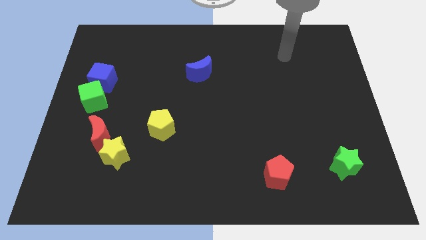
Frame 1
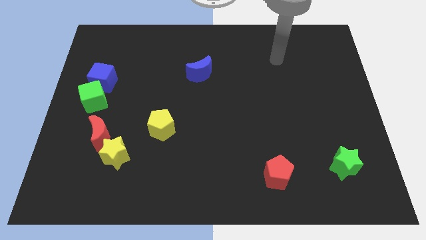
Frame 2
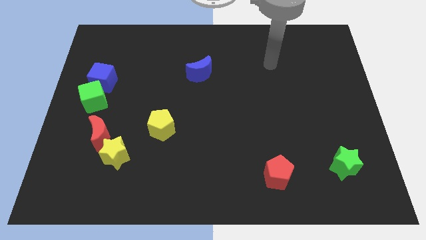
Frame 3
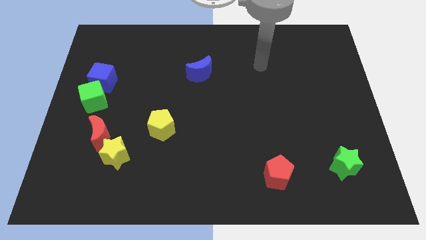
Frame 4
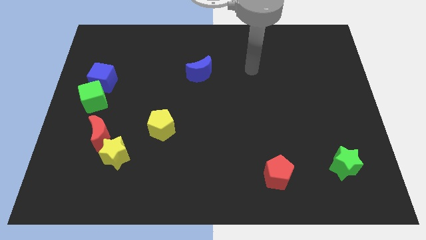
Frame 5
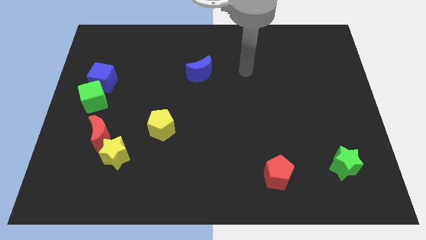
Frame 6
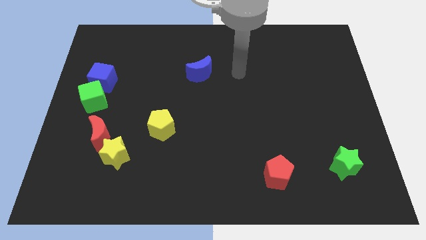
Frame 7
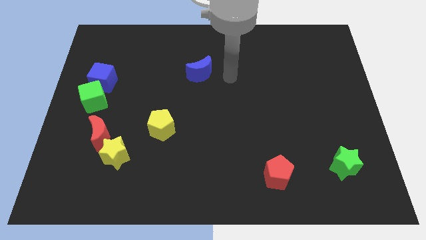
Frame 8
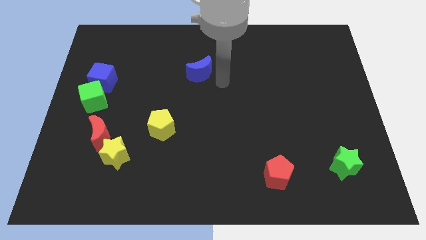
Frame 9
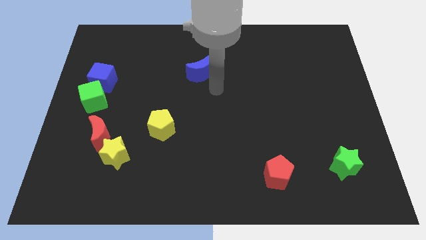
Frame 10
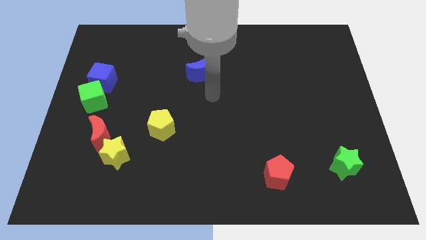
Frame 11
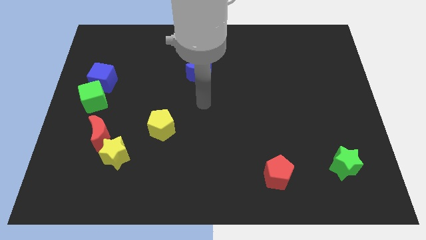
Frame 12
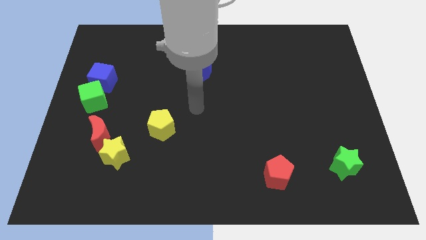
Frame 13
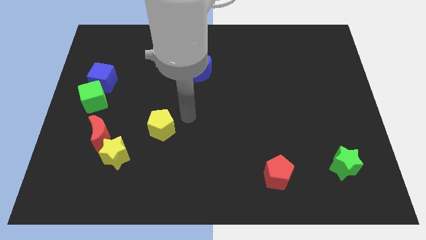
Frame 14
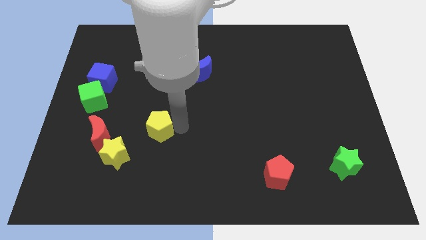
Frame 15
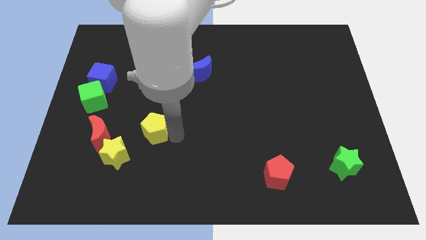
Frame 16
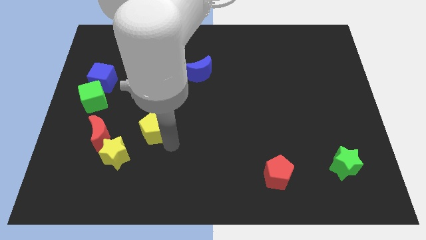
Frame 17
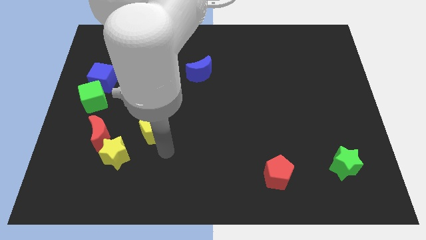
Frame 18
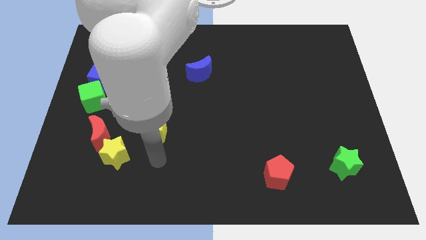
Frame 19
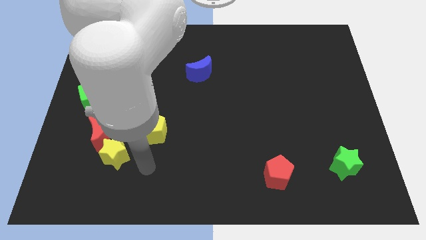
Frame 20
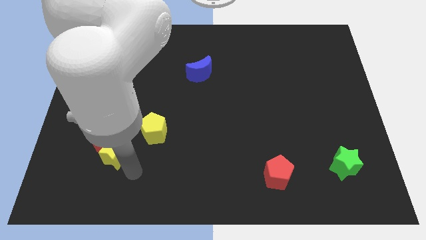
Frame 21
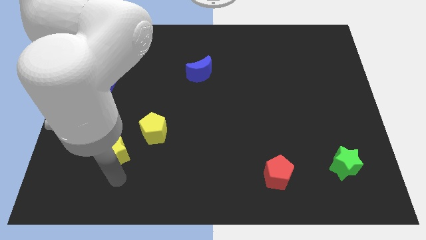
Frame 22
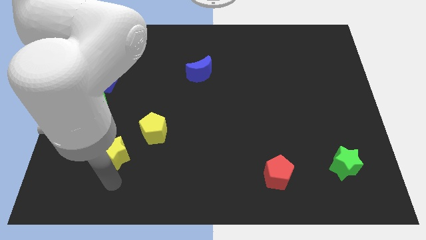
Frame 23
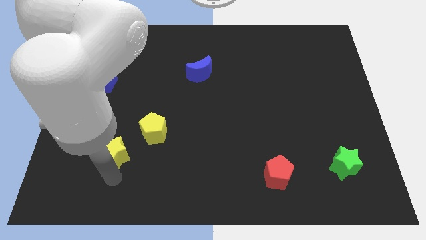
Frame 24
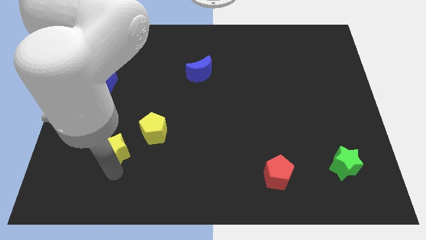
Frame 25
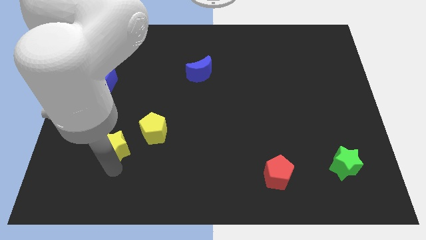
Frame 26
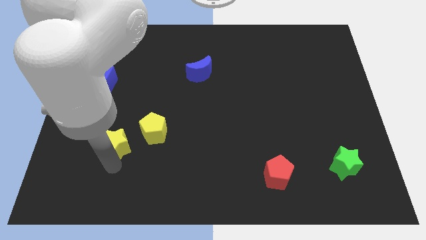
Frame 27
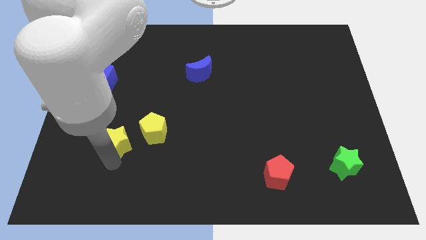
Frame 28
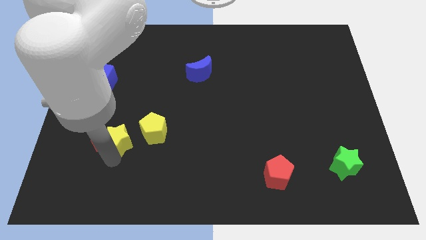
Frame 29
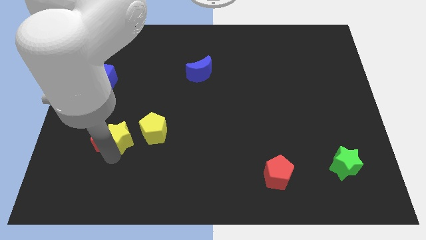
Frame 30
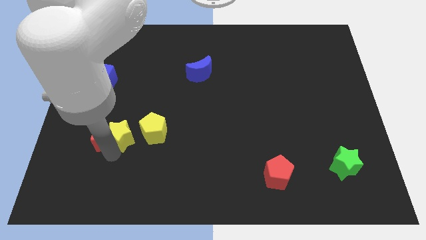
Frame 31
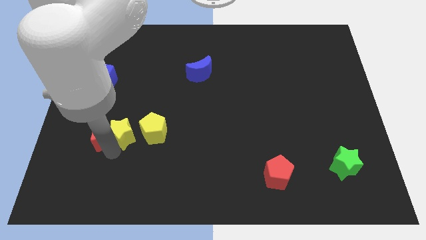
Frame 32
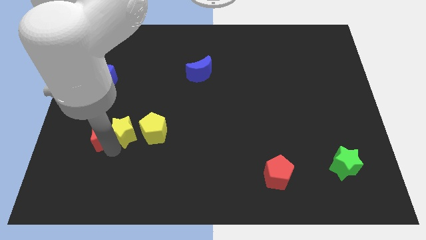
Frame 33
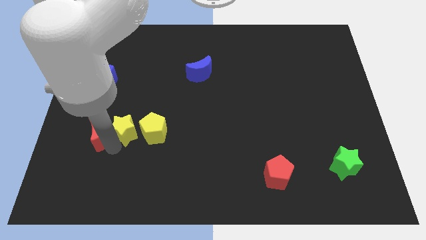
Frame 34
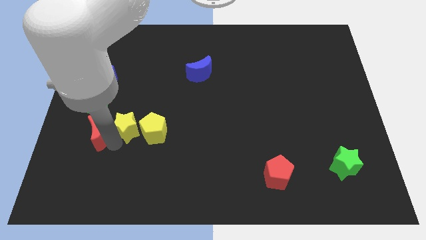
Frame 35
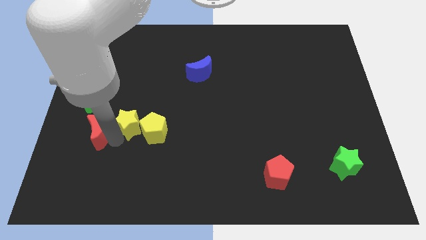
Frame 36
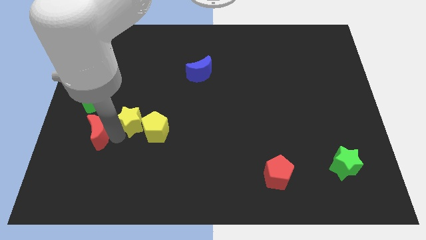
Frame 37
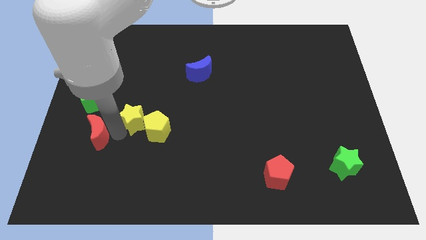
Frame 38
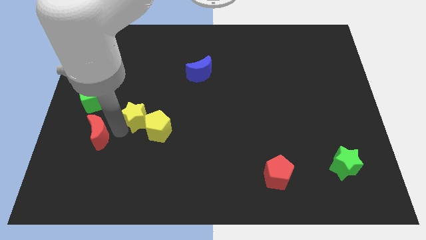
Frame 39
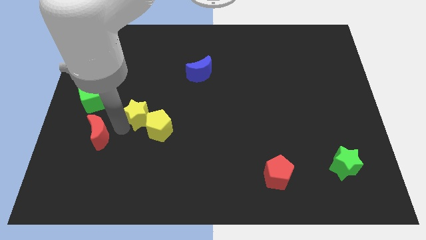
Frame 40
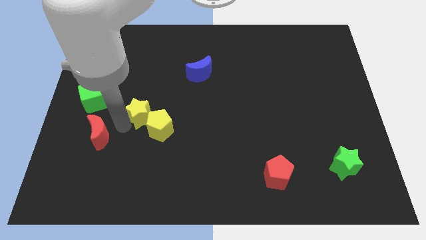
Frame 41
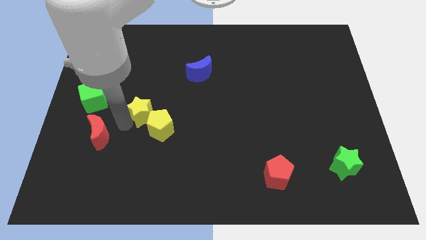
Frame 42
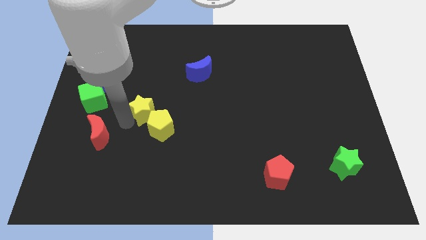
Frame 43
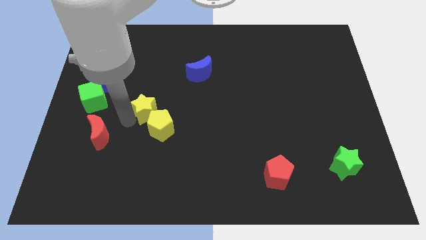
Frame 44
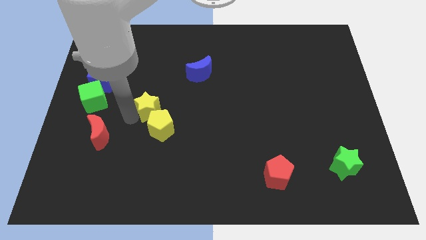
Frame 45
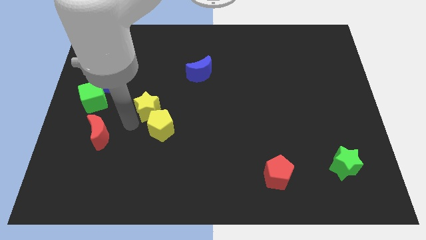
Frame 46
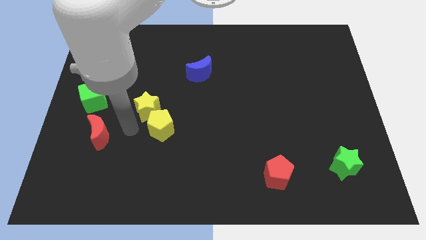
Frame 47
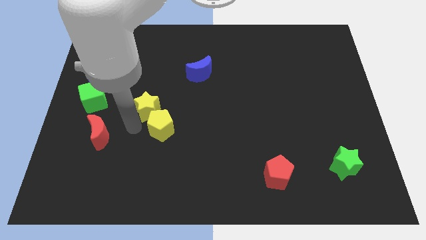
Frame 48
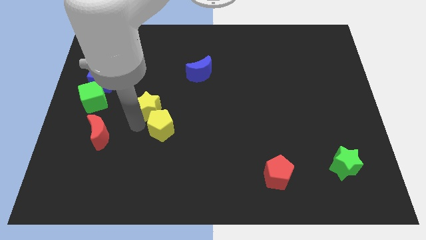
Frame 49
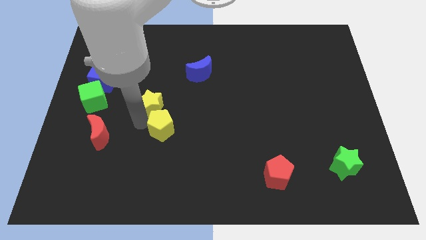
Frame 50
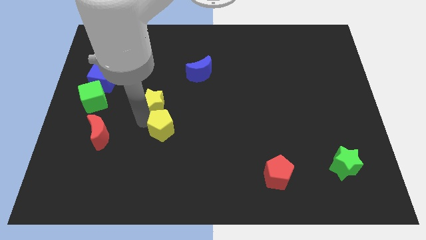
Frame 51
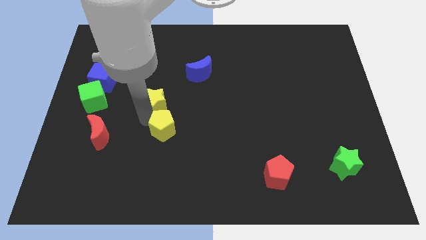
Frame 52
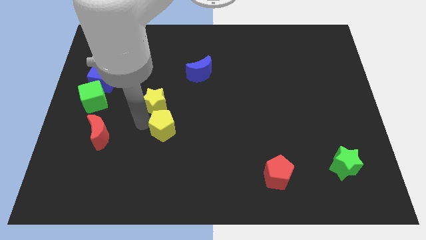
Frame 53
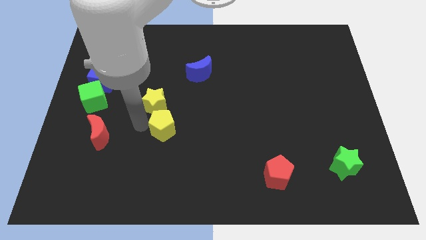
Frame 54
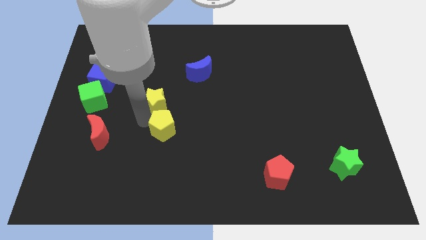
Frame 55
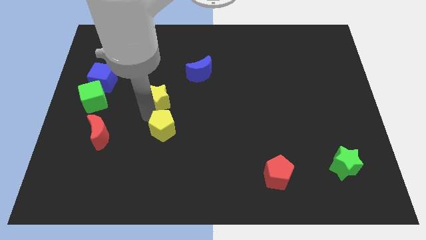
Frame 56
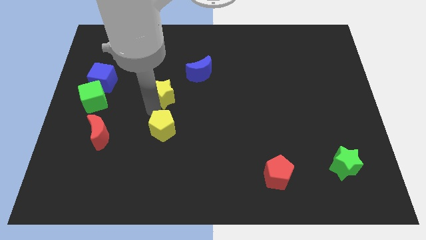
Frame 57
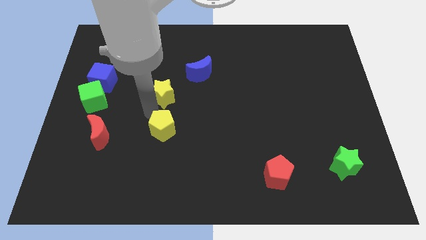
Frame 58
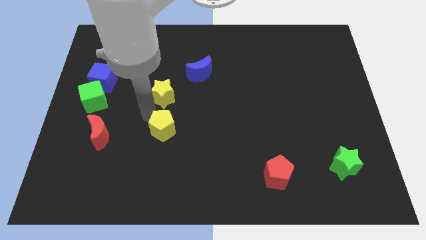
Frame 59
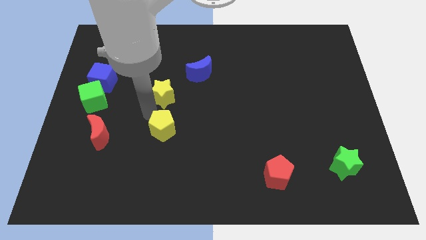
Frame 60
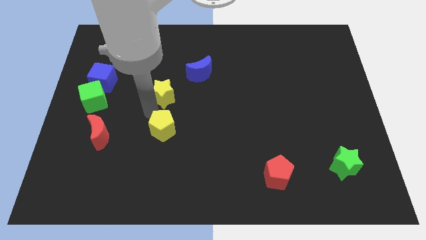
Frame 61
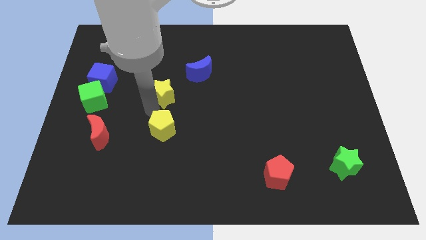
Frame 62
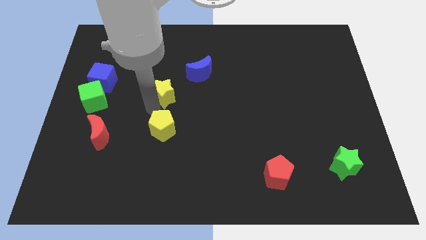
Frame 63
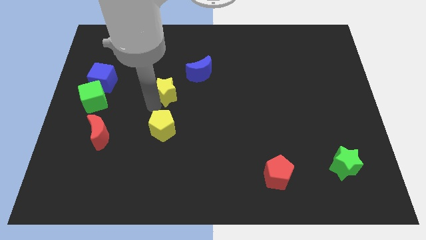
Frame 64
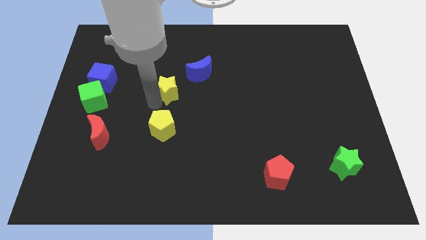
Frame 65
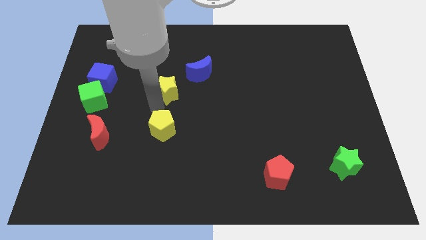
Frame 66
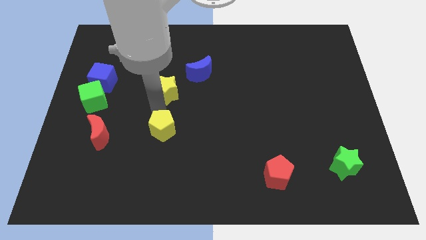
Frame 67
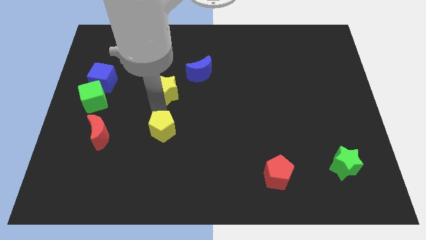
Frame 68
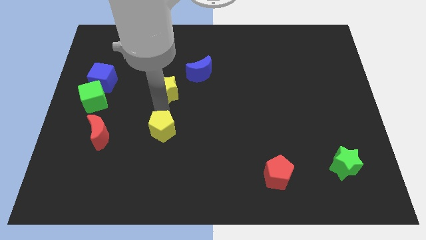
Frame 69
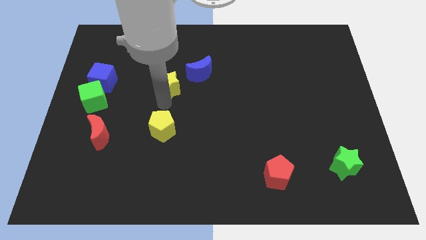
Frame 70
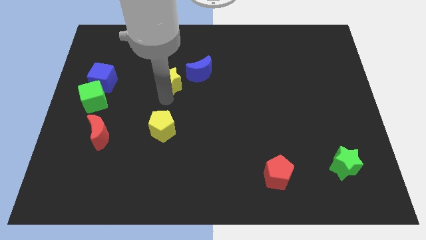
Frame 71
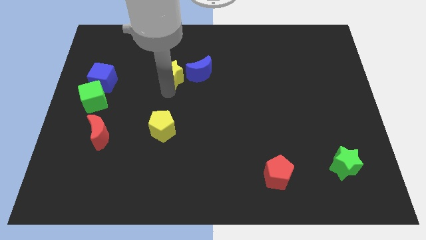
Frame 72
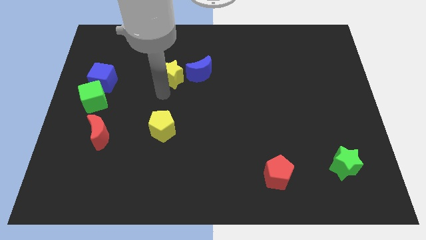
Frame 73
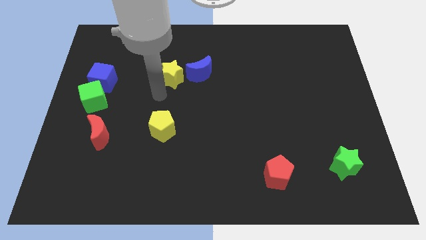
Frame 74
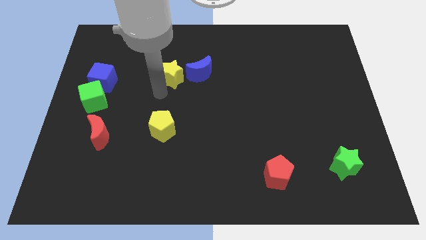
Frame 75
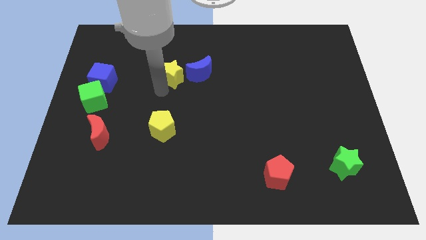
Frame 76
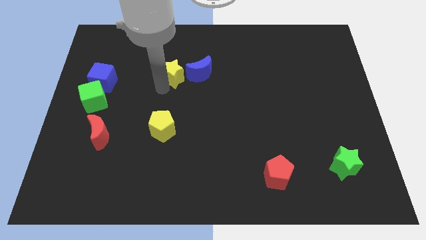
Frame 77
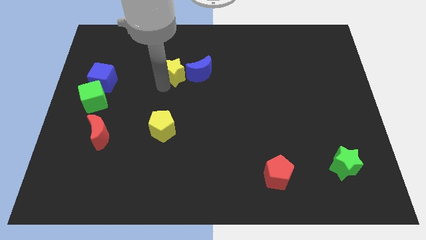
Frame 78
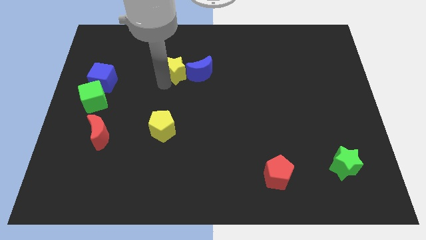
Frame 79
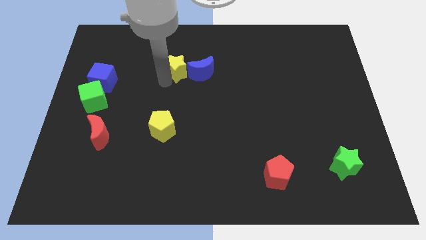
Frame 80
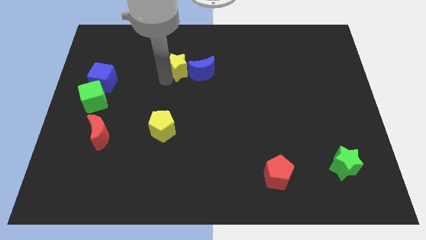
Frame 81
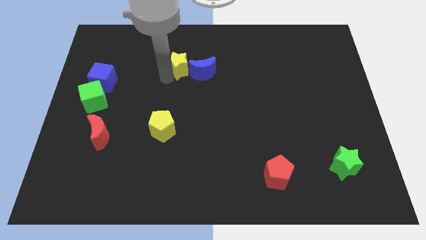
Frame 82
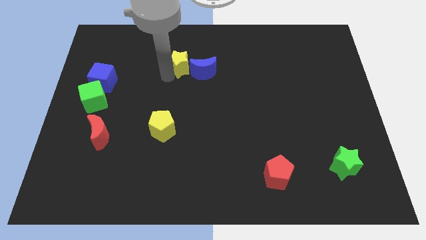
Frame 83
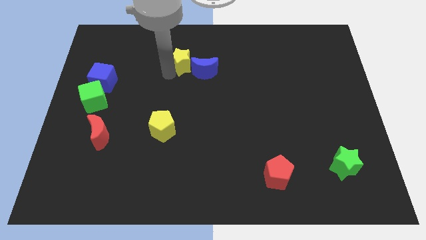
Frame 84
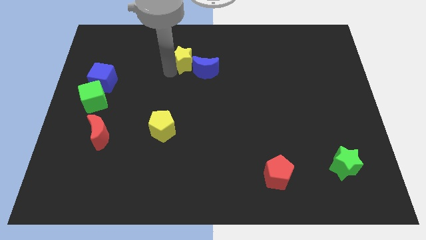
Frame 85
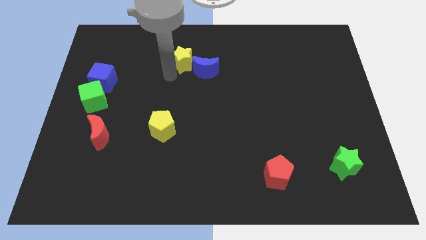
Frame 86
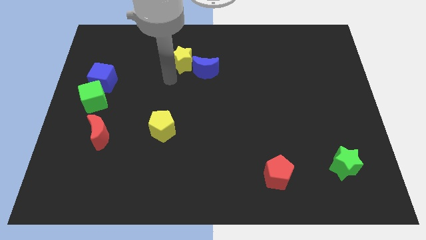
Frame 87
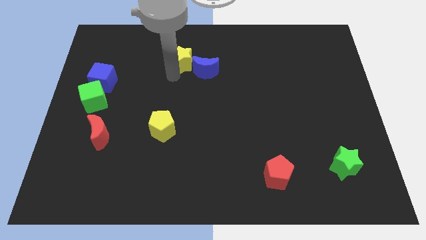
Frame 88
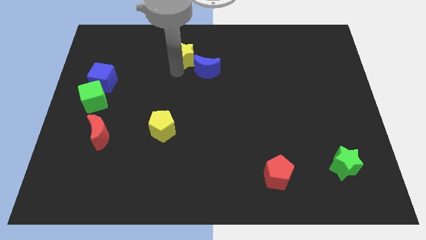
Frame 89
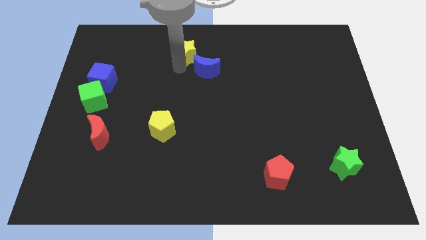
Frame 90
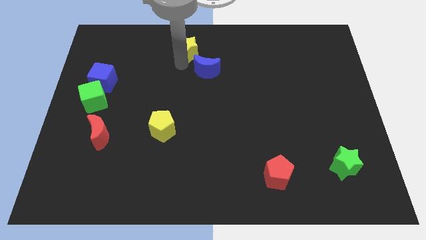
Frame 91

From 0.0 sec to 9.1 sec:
put the yellow star to the towards your base
